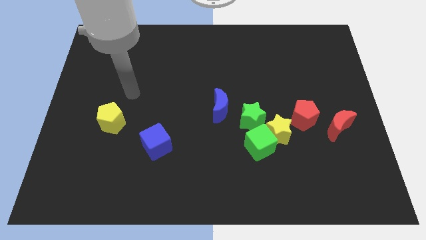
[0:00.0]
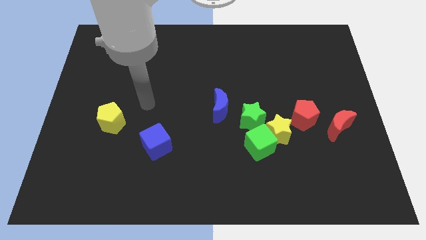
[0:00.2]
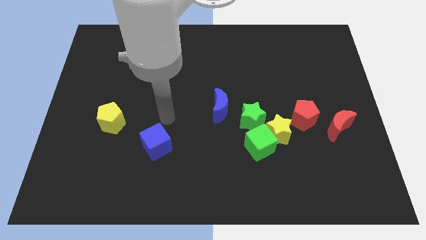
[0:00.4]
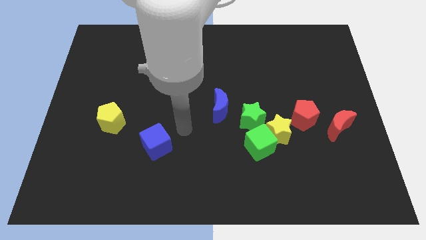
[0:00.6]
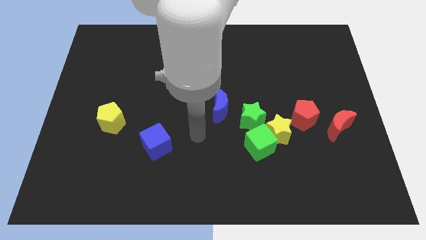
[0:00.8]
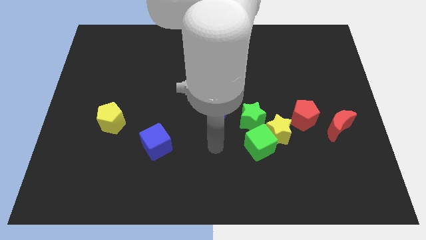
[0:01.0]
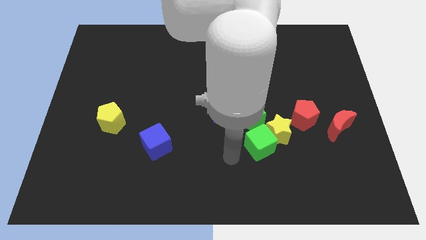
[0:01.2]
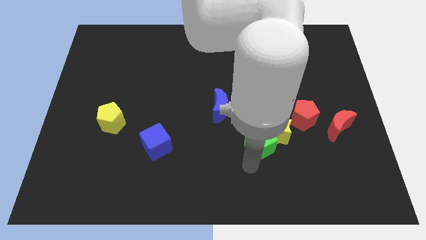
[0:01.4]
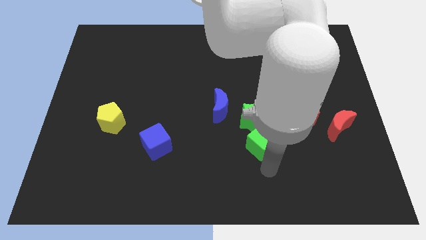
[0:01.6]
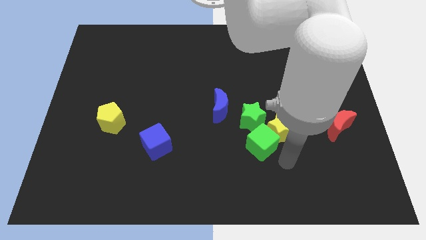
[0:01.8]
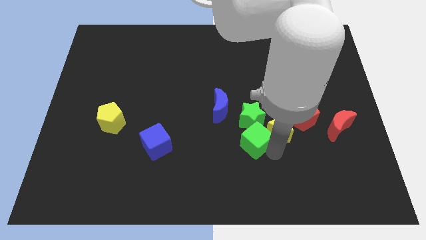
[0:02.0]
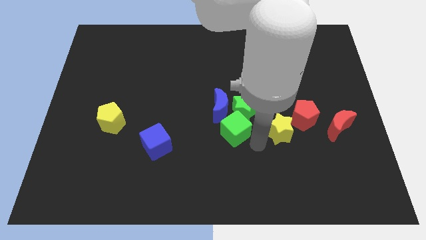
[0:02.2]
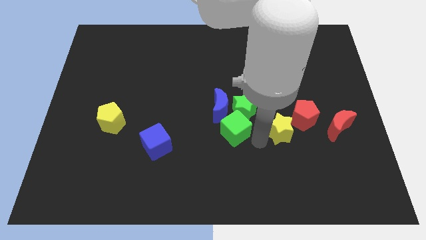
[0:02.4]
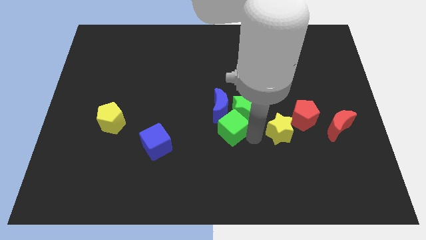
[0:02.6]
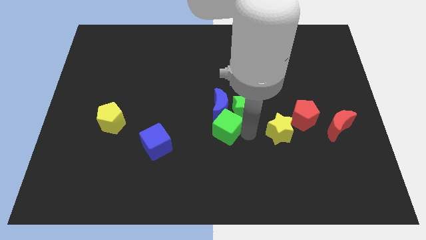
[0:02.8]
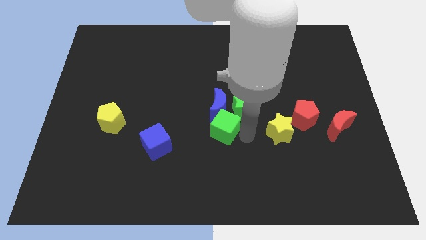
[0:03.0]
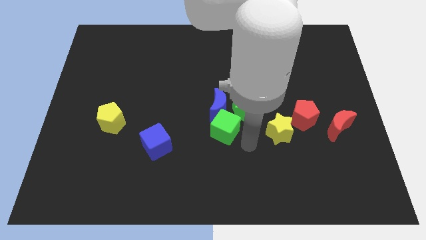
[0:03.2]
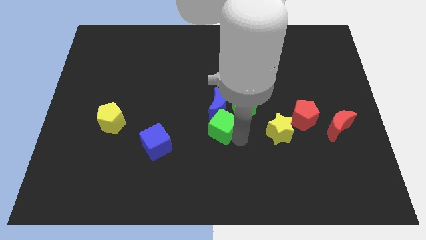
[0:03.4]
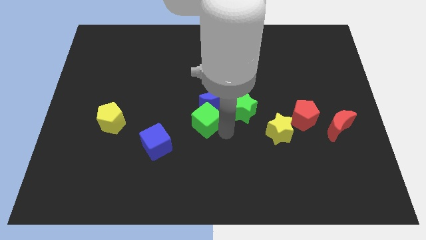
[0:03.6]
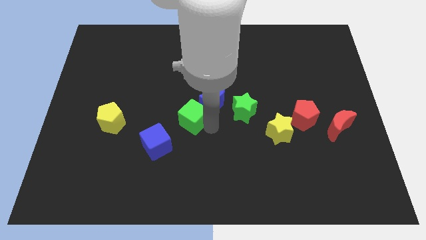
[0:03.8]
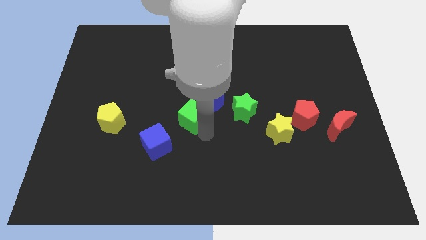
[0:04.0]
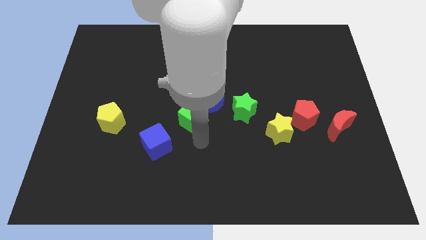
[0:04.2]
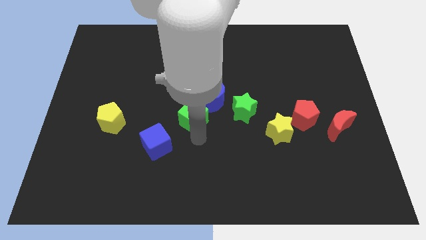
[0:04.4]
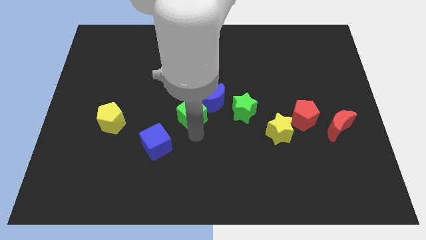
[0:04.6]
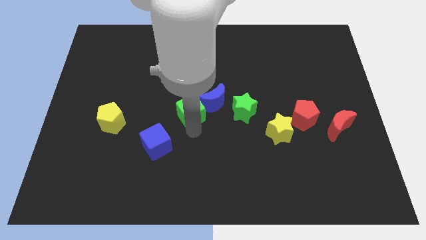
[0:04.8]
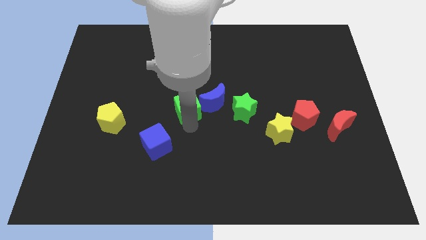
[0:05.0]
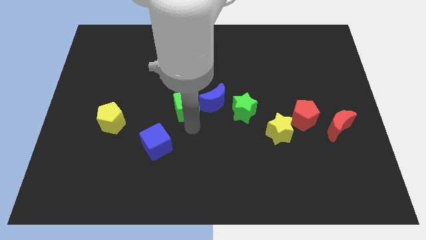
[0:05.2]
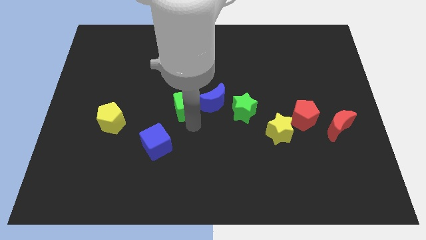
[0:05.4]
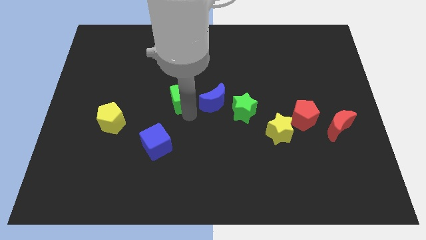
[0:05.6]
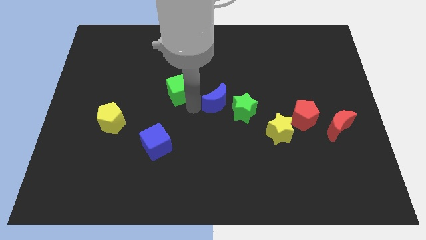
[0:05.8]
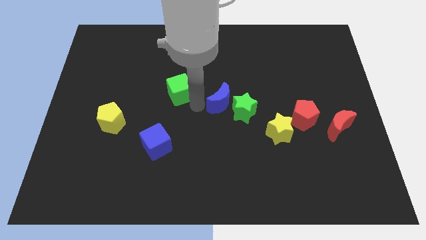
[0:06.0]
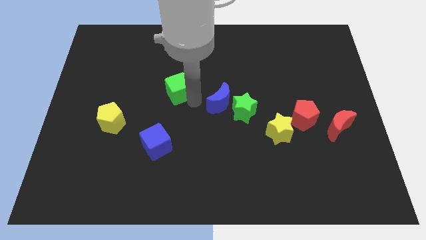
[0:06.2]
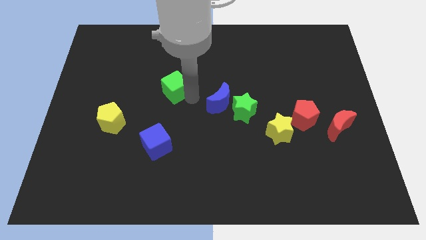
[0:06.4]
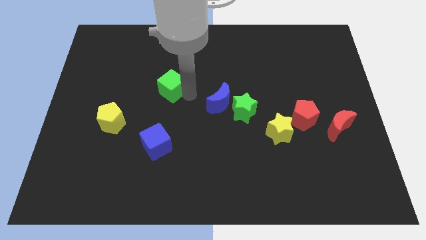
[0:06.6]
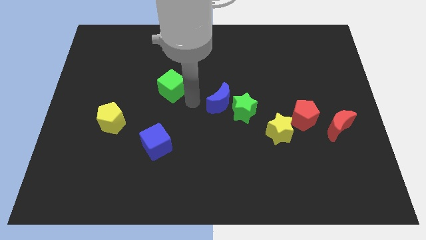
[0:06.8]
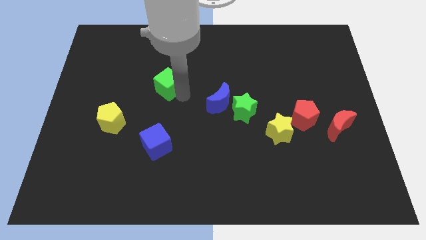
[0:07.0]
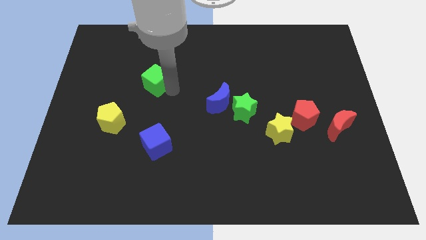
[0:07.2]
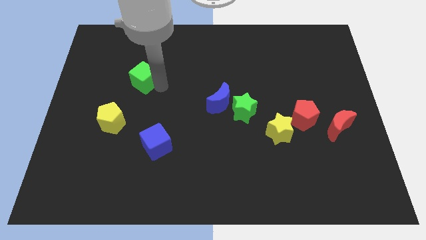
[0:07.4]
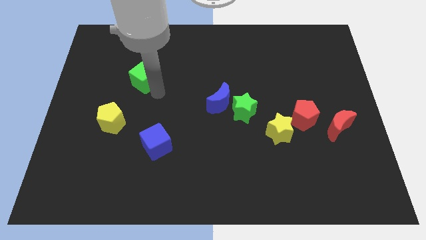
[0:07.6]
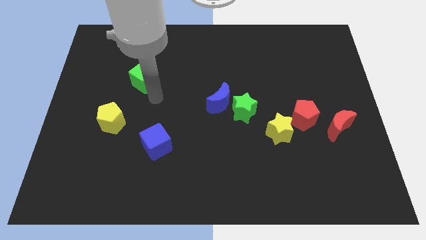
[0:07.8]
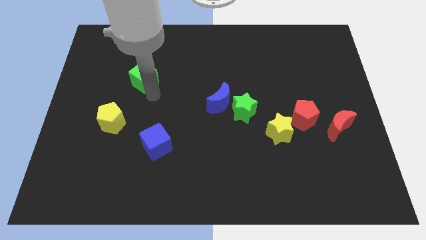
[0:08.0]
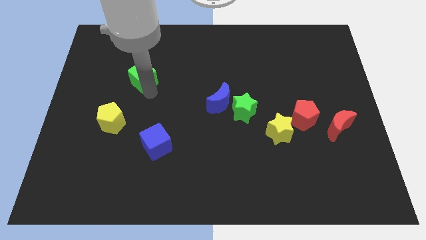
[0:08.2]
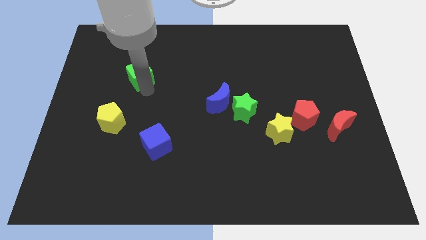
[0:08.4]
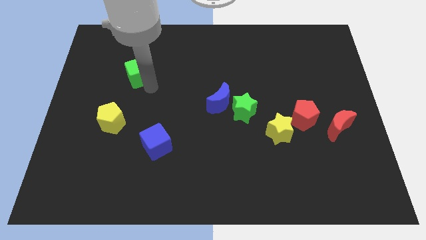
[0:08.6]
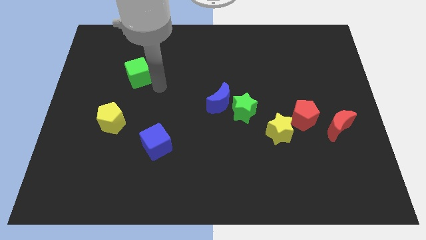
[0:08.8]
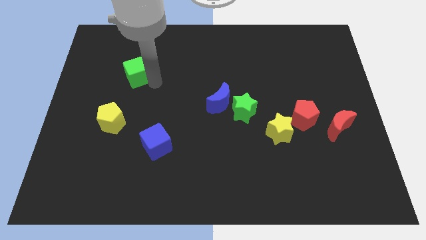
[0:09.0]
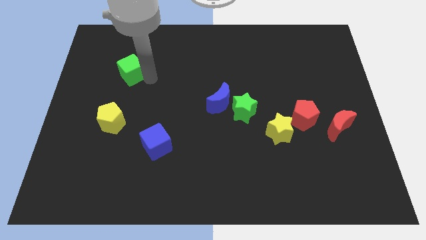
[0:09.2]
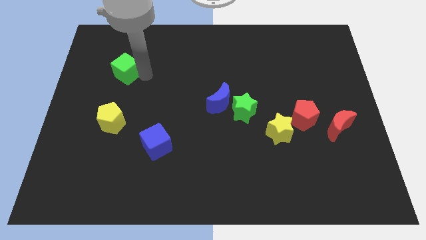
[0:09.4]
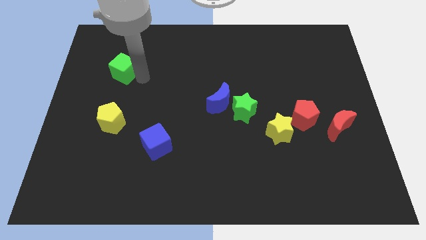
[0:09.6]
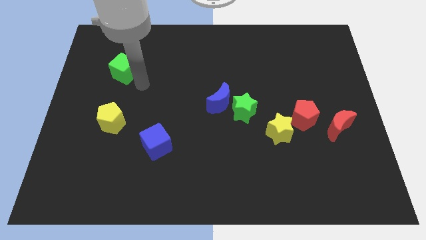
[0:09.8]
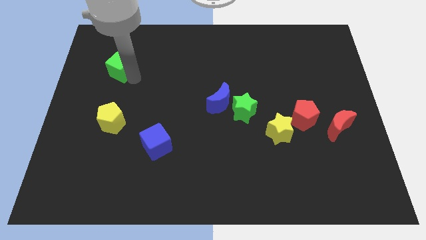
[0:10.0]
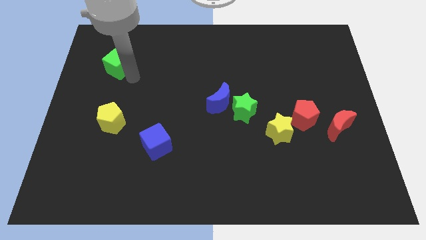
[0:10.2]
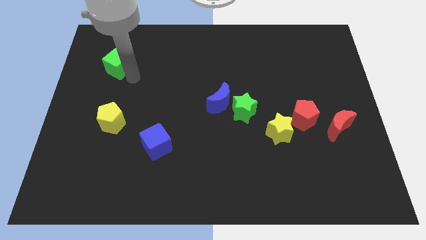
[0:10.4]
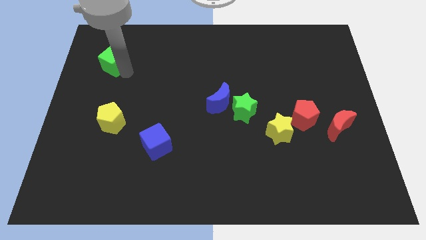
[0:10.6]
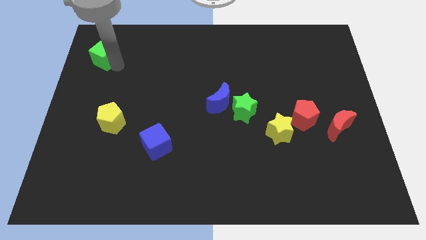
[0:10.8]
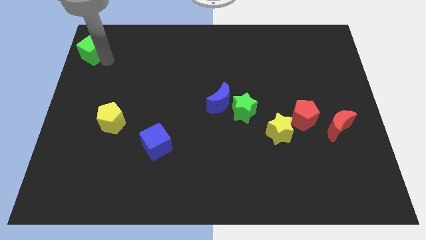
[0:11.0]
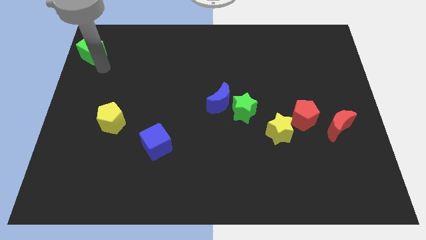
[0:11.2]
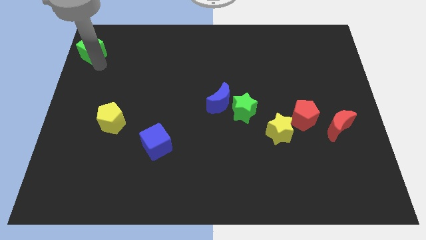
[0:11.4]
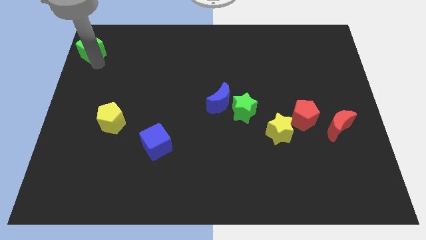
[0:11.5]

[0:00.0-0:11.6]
move the green cube to the top left
